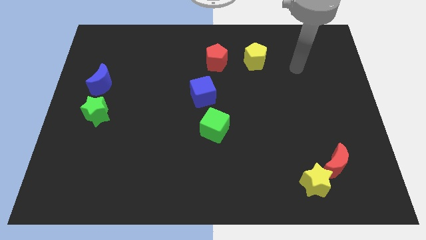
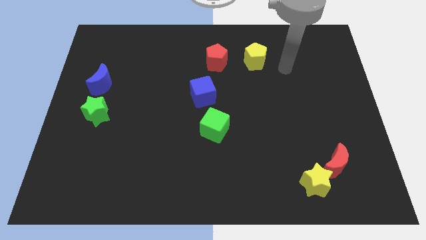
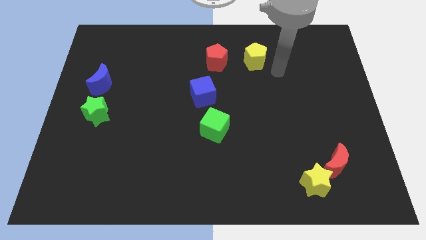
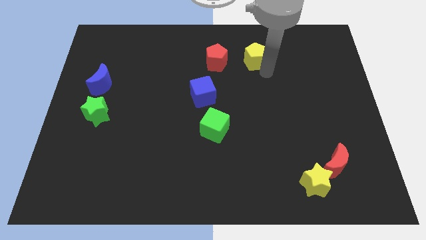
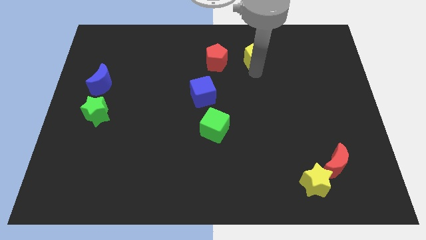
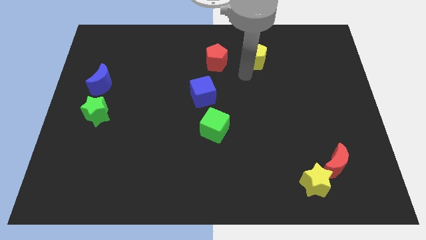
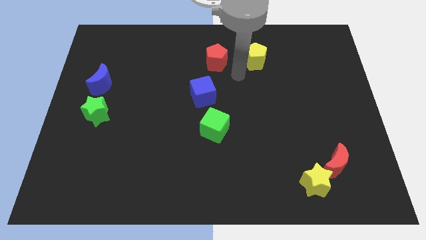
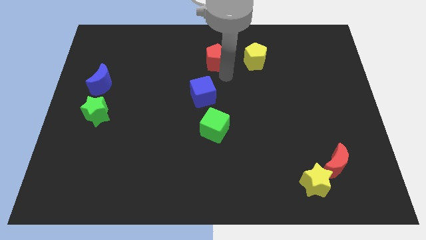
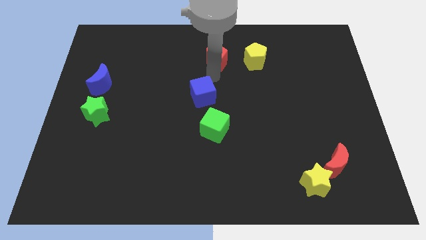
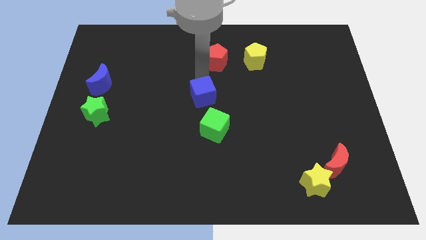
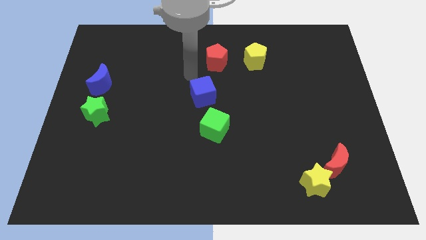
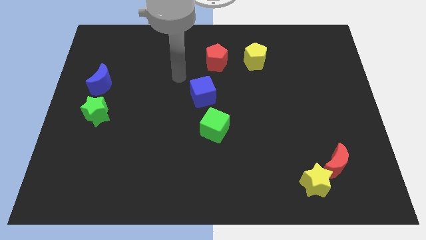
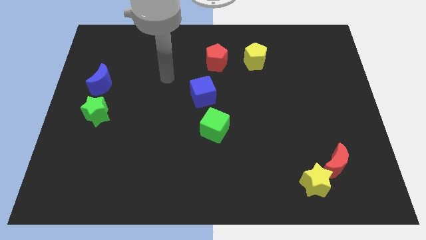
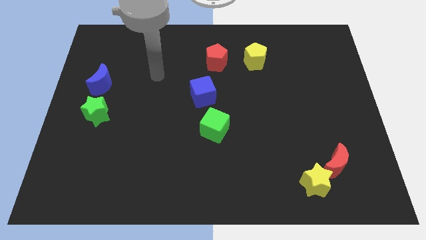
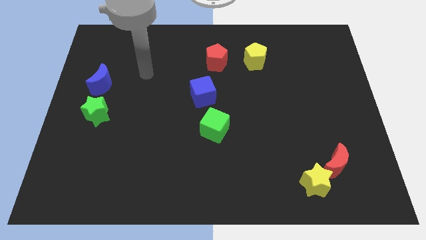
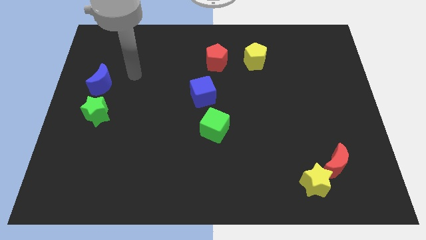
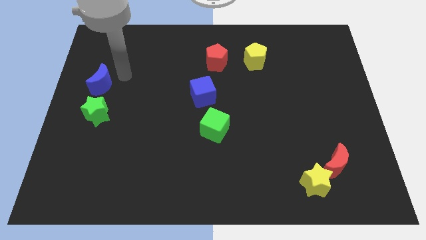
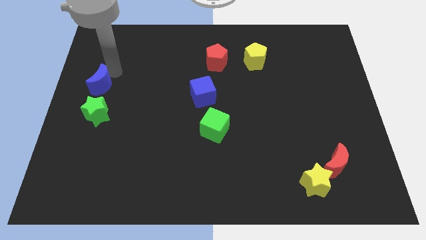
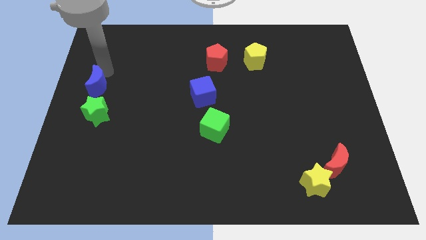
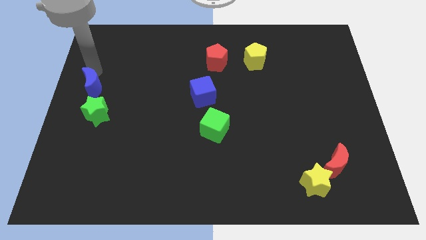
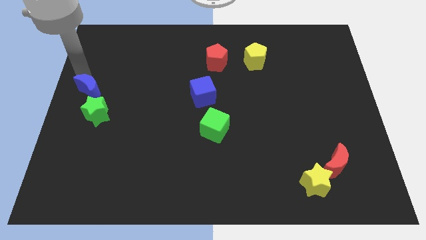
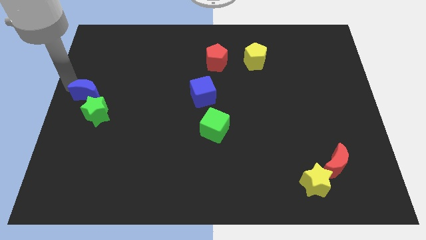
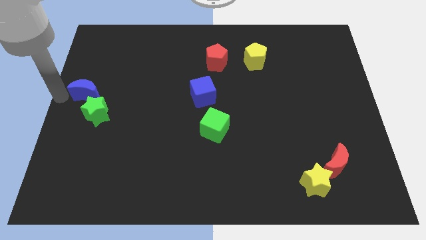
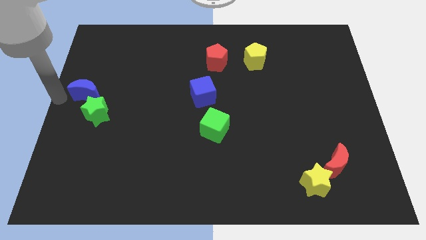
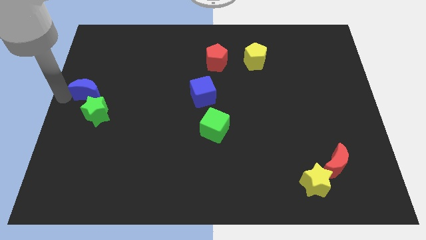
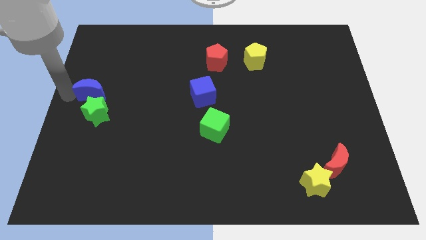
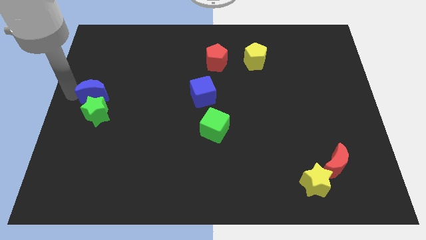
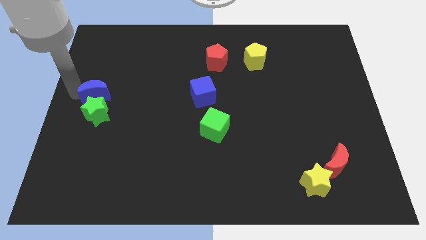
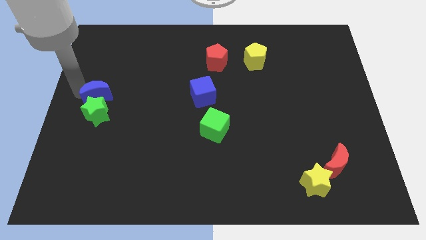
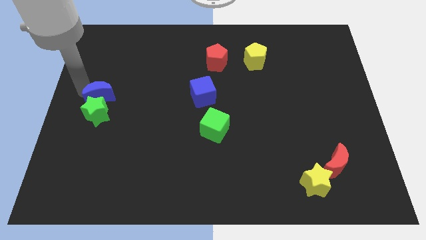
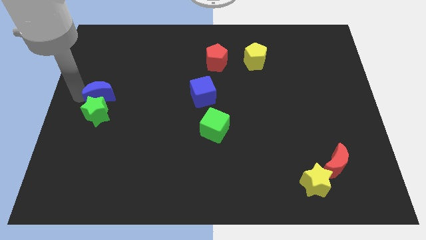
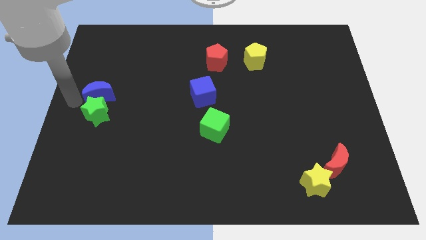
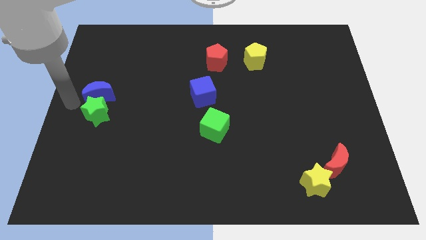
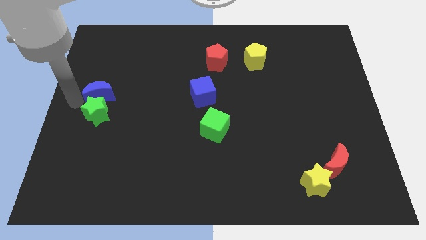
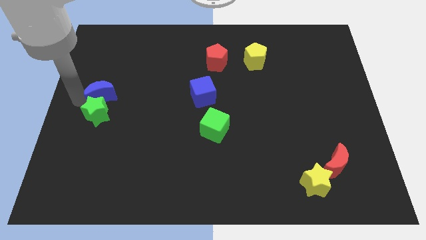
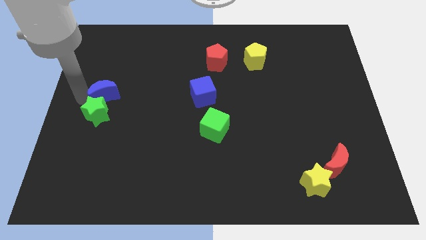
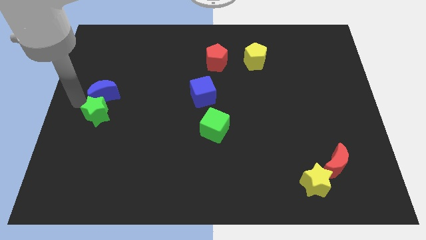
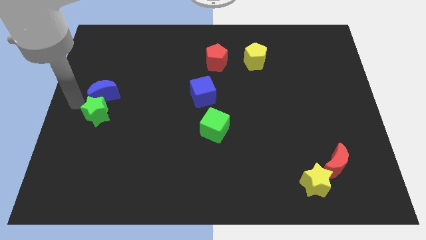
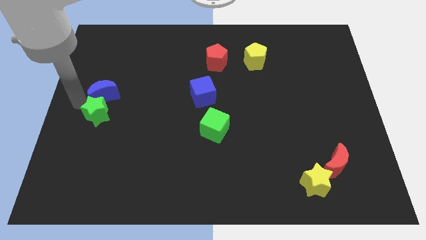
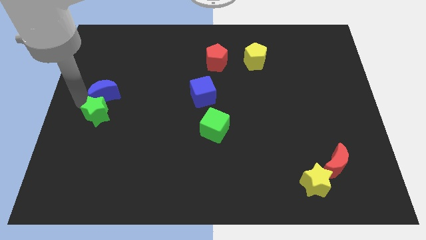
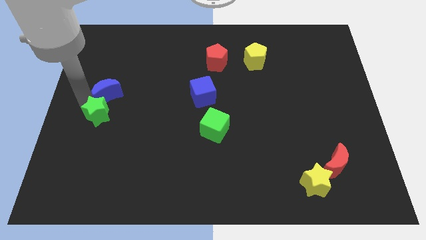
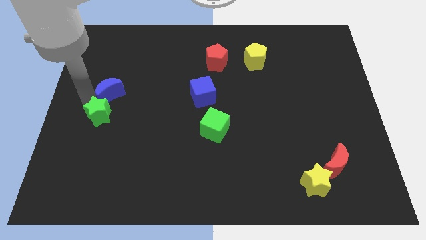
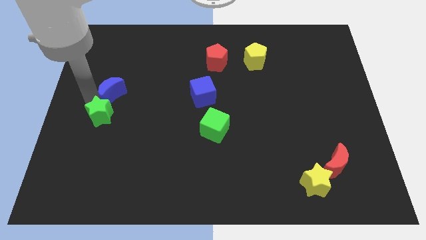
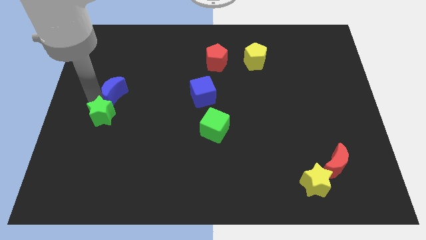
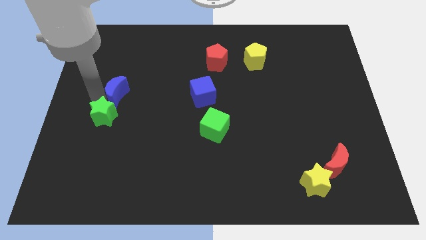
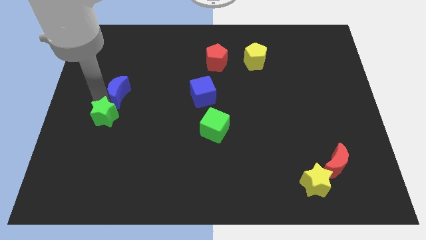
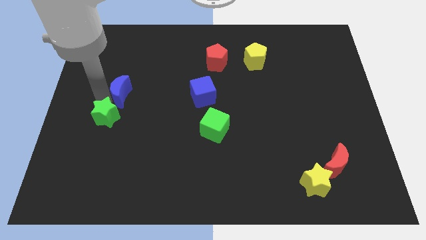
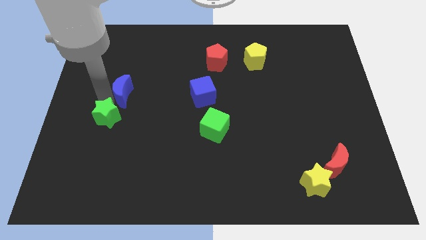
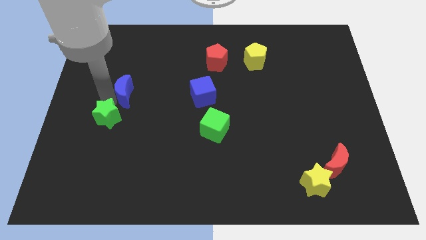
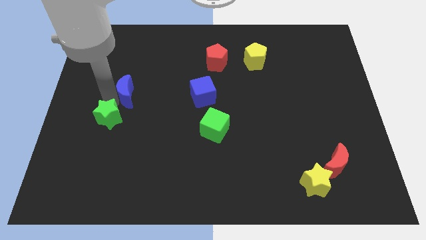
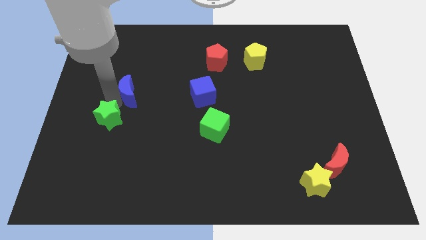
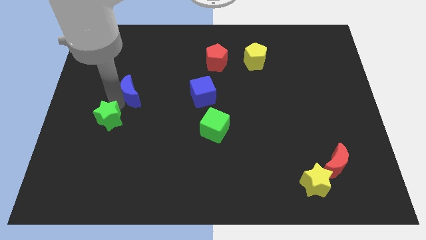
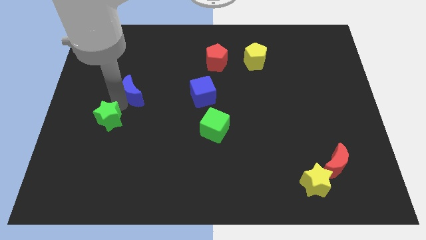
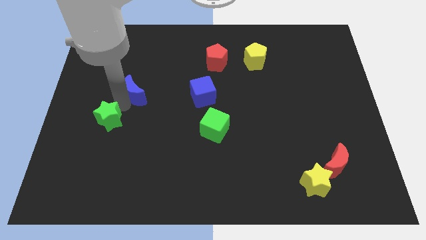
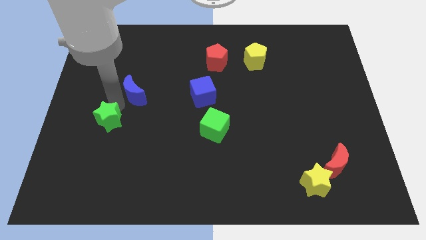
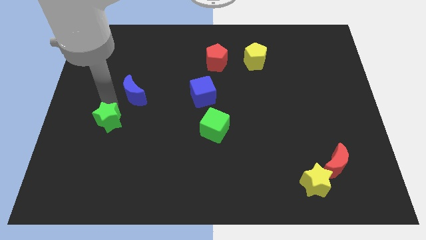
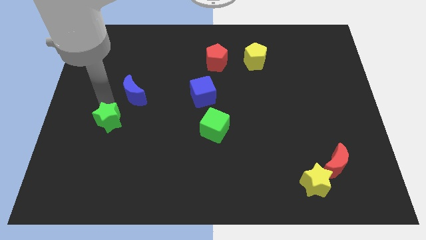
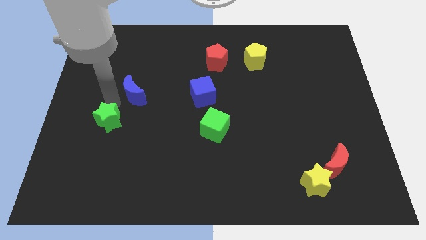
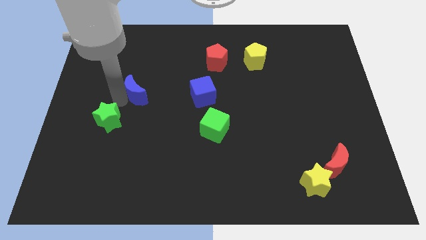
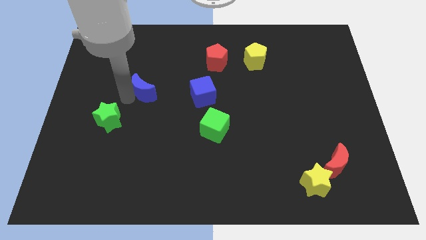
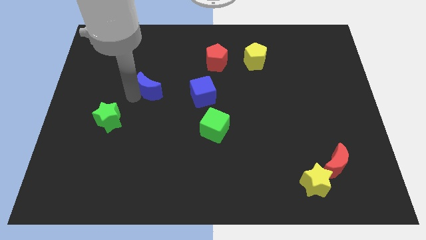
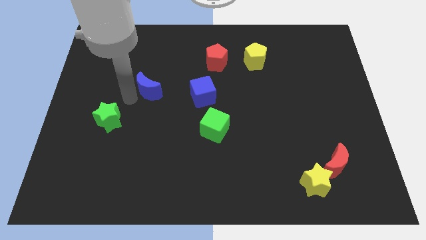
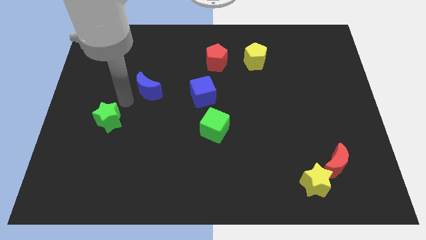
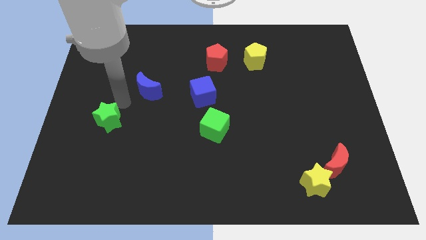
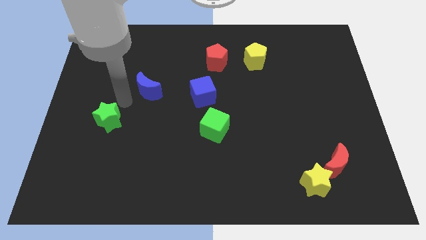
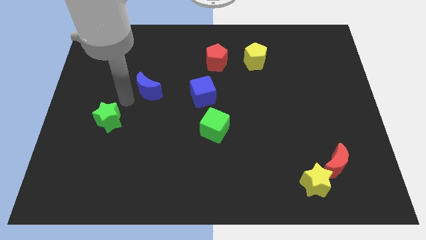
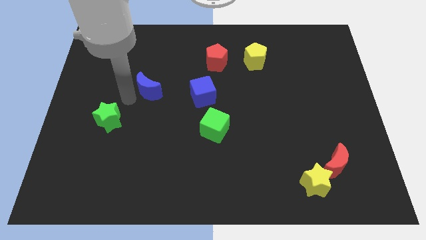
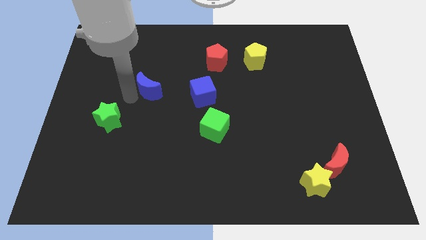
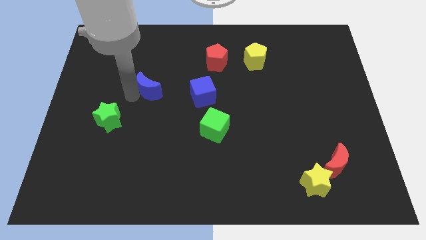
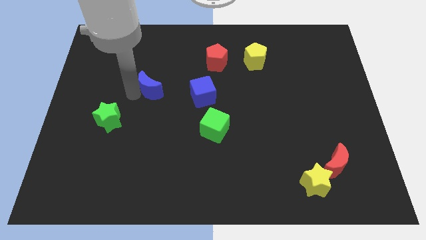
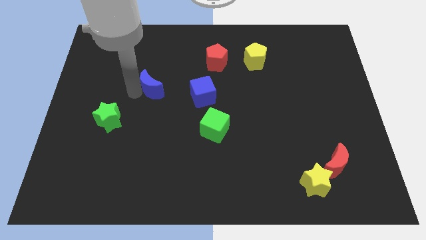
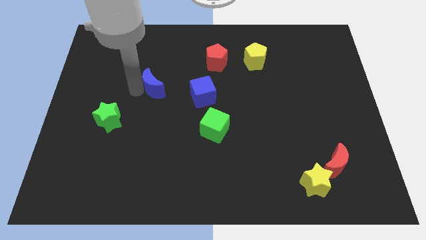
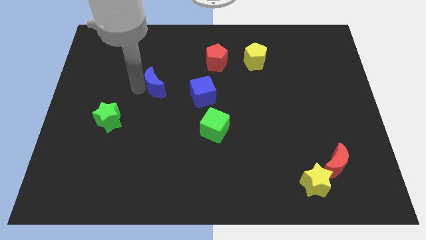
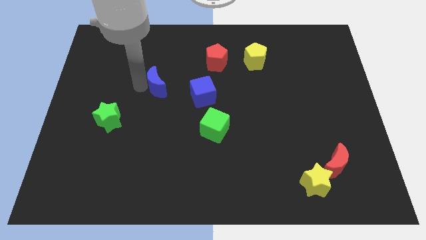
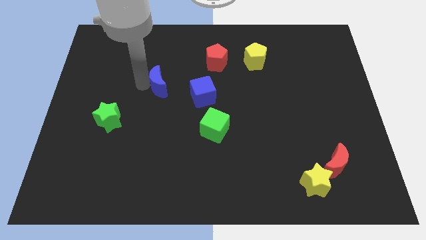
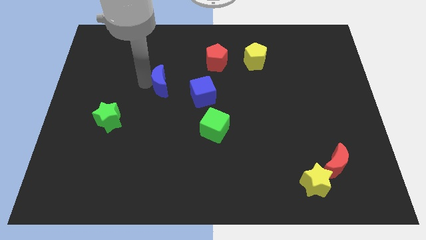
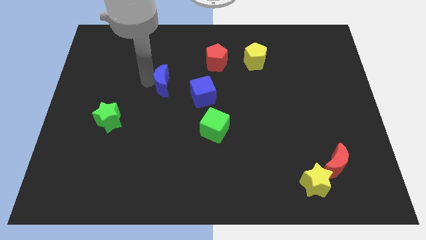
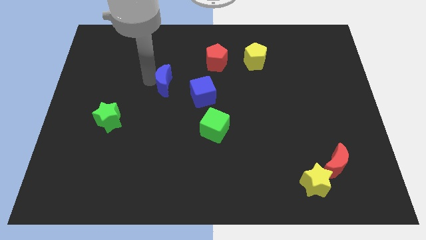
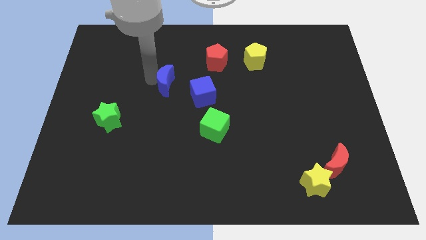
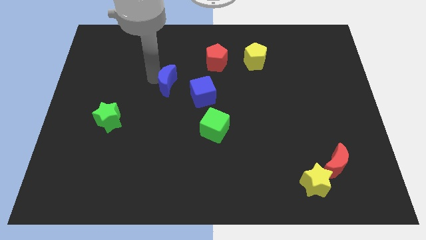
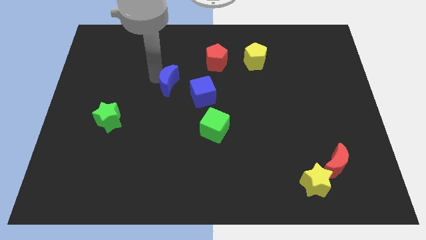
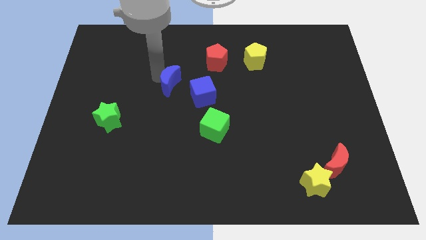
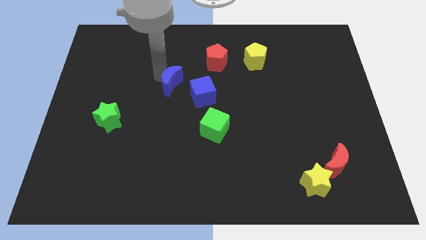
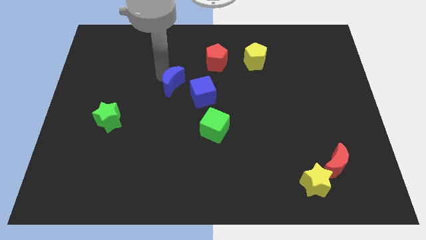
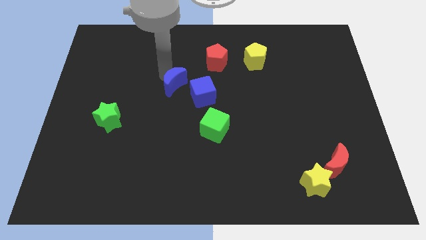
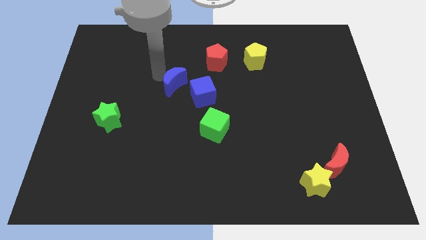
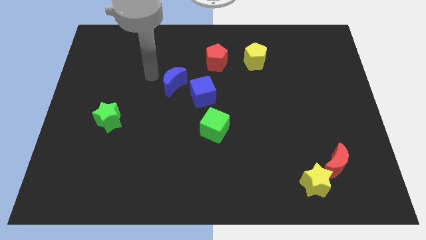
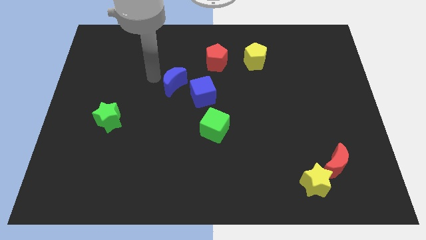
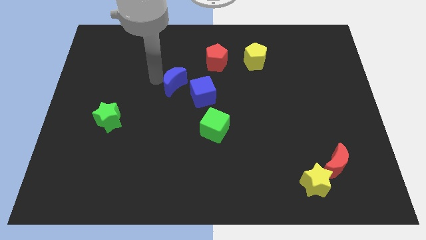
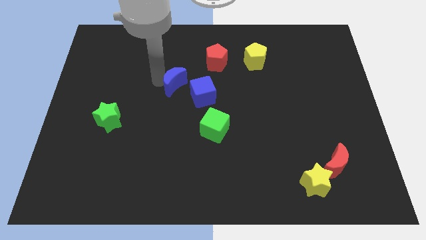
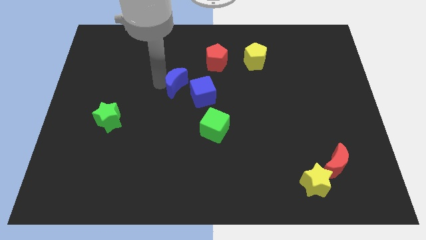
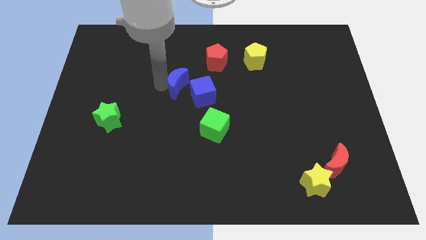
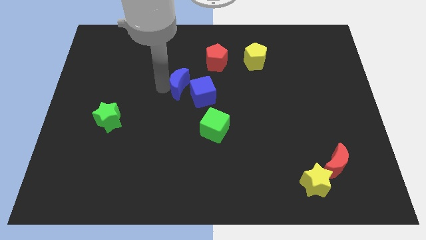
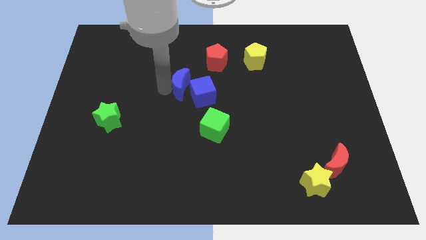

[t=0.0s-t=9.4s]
slide the blue moon to the blue cube
